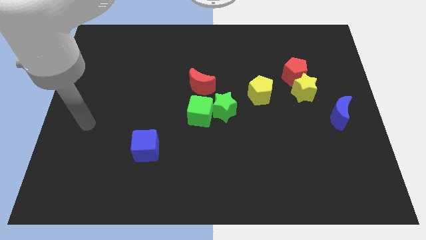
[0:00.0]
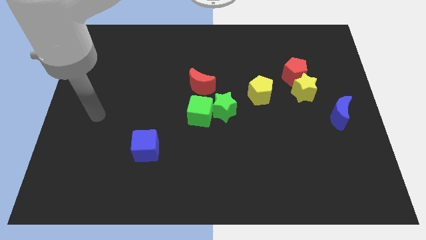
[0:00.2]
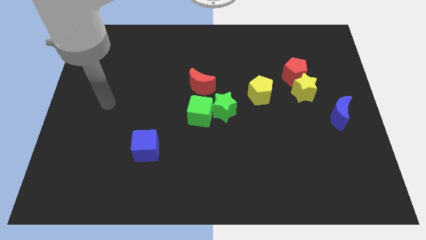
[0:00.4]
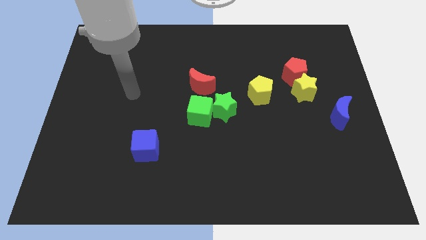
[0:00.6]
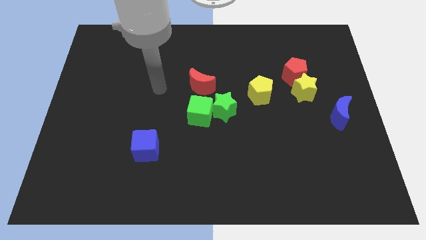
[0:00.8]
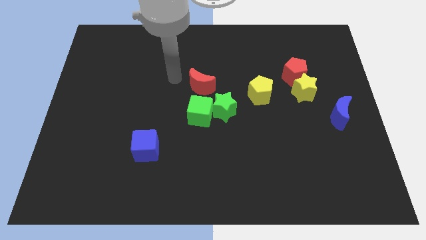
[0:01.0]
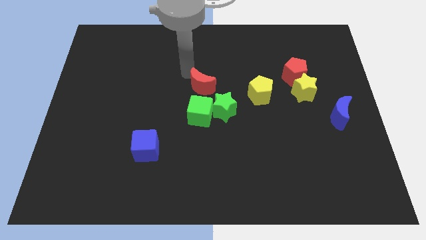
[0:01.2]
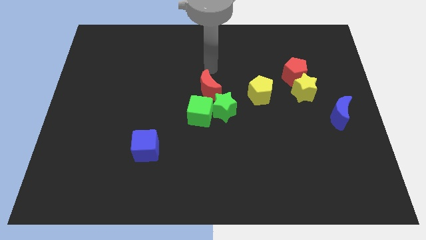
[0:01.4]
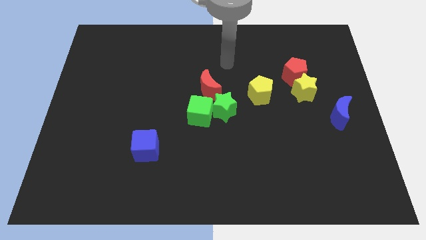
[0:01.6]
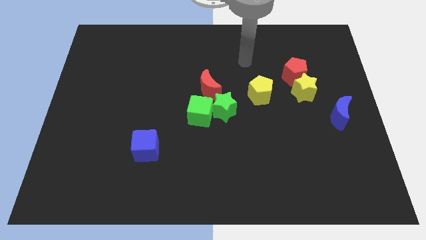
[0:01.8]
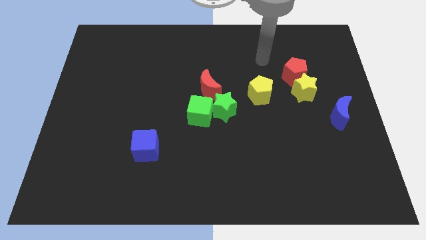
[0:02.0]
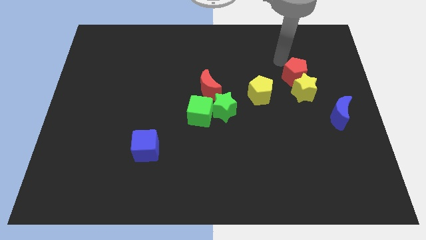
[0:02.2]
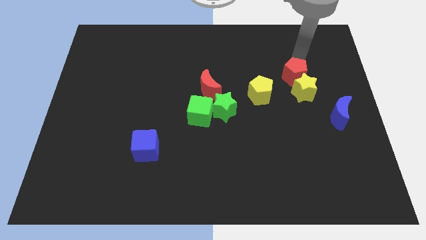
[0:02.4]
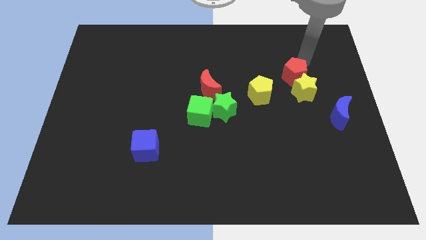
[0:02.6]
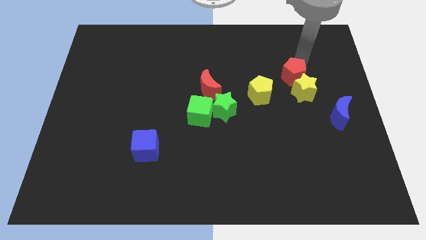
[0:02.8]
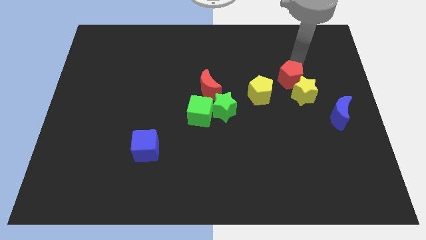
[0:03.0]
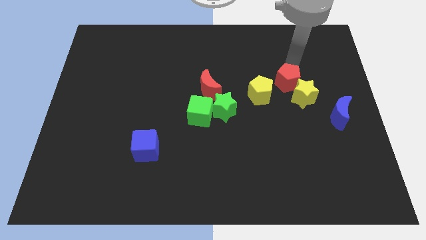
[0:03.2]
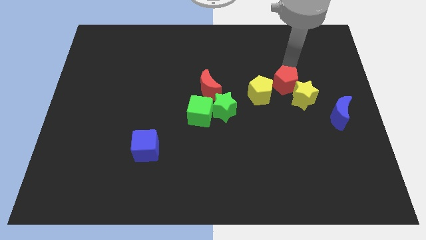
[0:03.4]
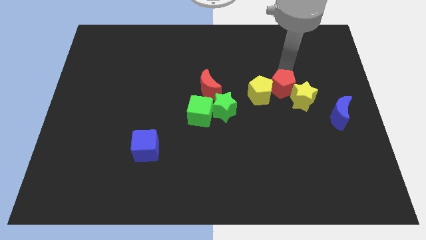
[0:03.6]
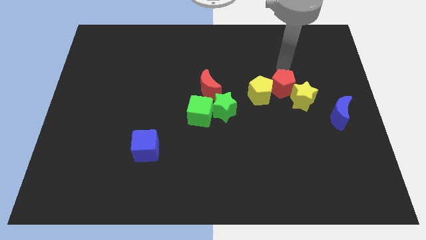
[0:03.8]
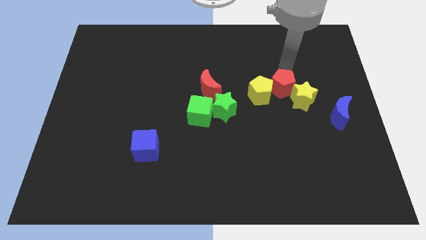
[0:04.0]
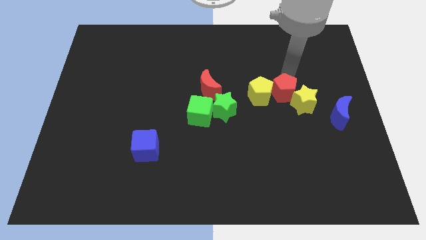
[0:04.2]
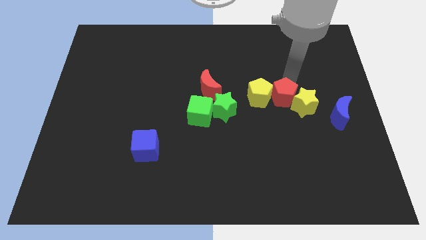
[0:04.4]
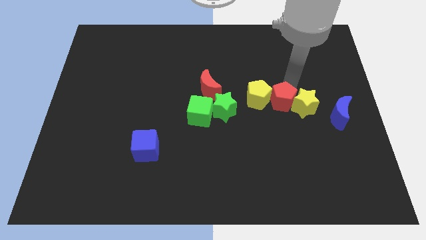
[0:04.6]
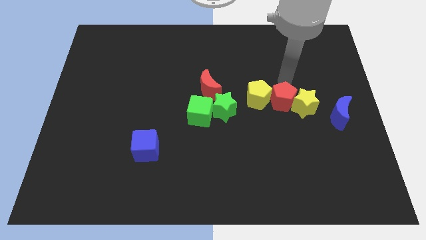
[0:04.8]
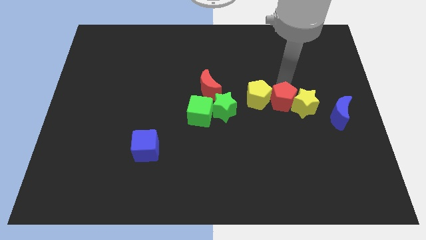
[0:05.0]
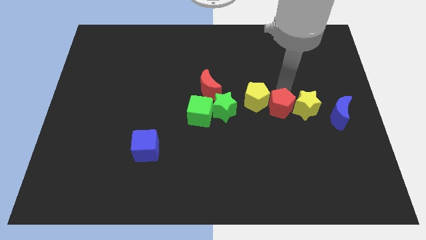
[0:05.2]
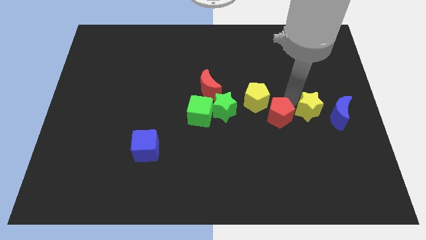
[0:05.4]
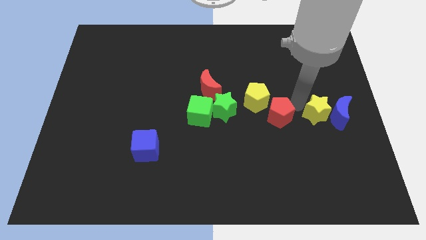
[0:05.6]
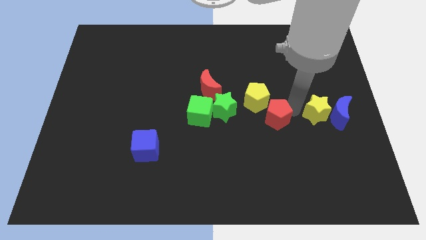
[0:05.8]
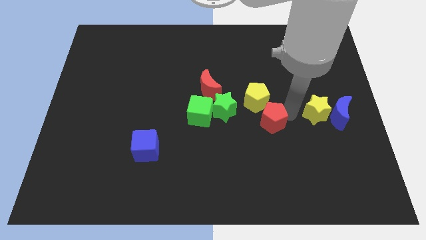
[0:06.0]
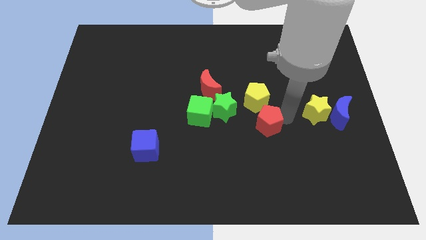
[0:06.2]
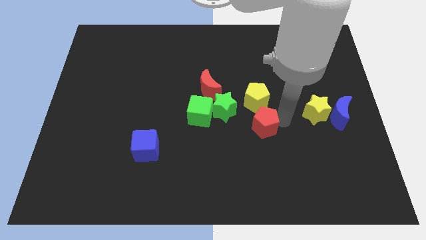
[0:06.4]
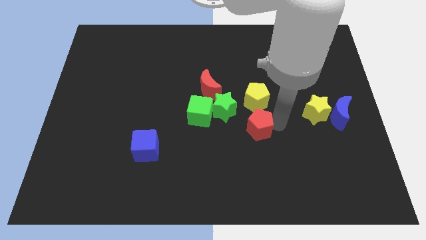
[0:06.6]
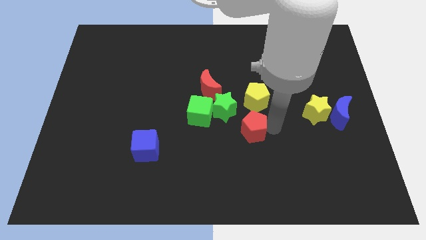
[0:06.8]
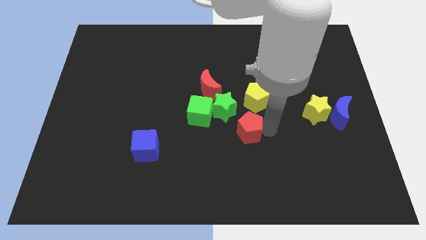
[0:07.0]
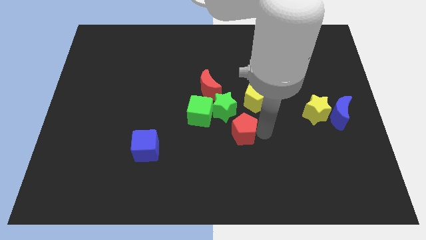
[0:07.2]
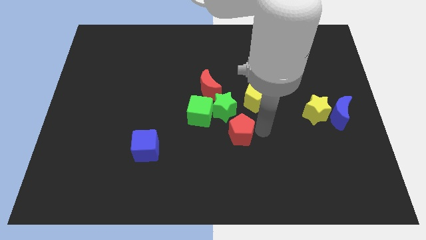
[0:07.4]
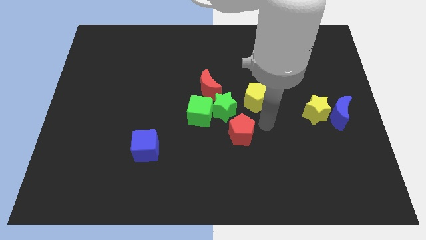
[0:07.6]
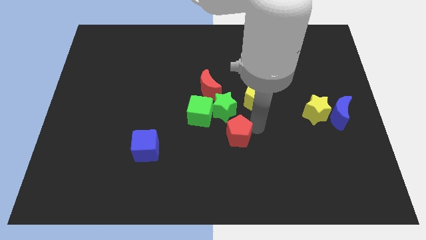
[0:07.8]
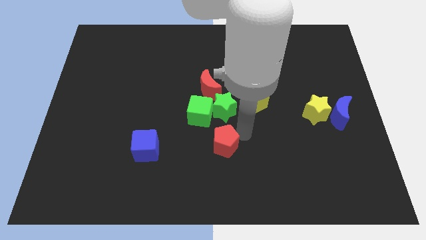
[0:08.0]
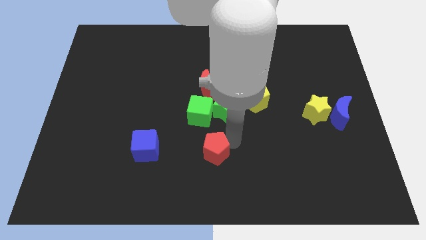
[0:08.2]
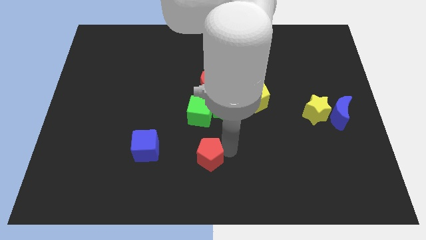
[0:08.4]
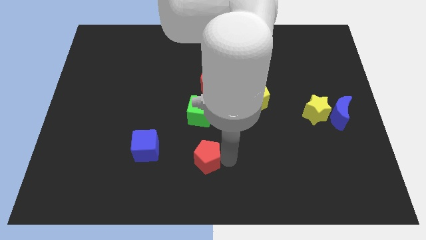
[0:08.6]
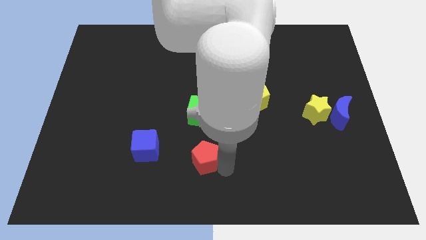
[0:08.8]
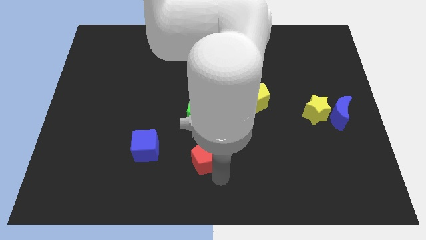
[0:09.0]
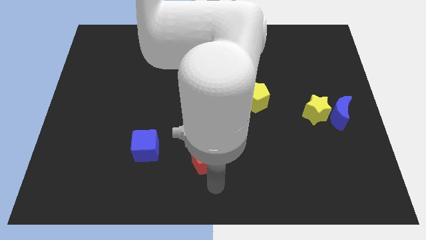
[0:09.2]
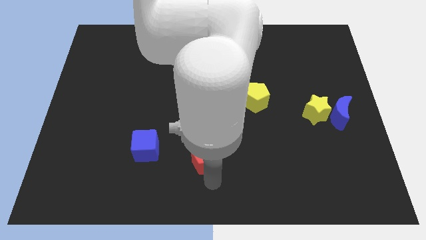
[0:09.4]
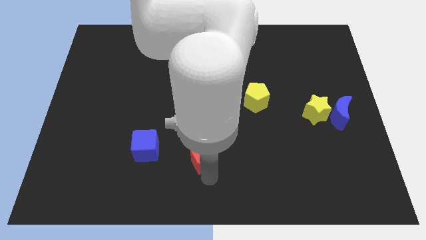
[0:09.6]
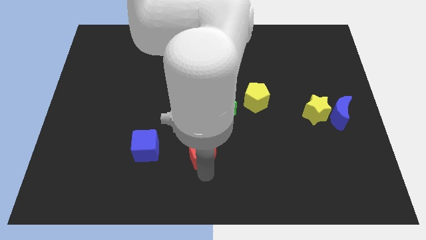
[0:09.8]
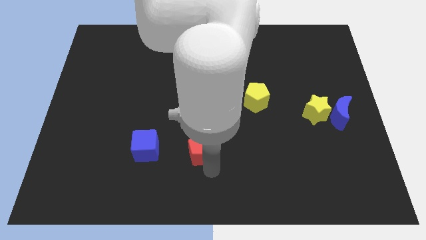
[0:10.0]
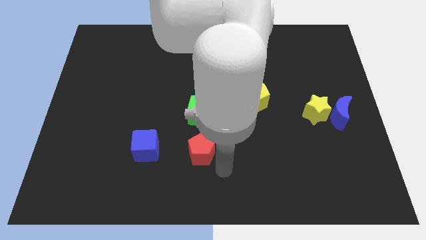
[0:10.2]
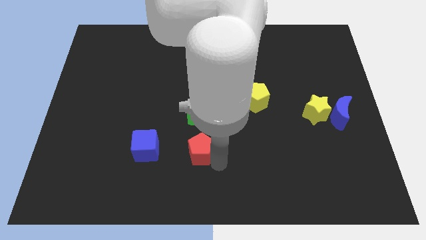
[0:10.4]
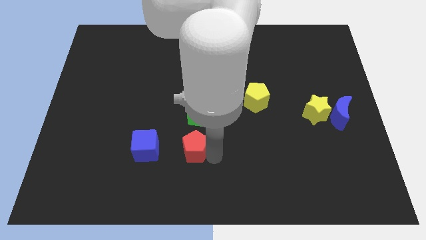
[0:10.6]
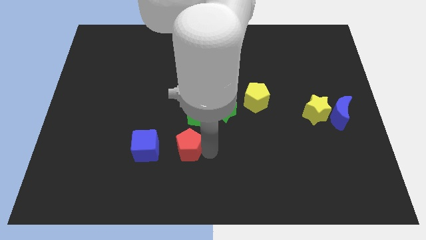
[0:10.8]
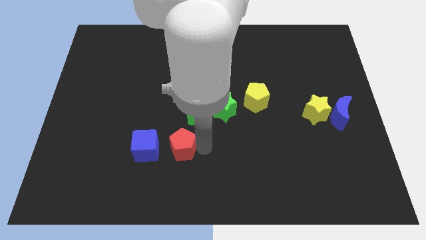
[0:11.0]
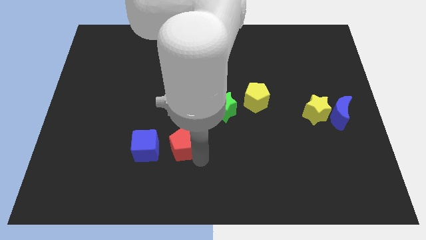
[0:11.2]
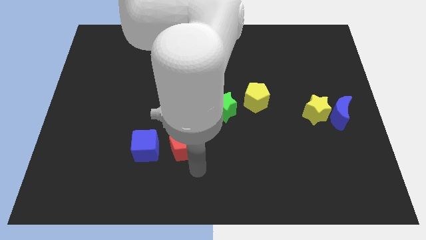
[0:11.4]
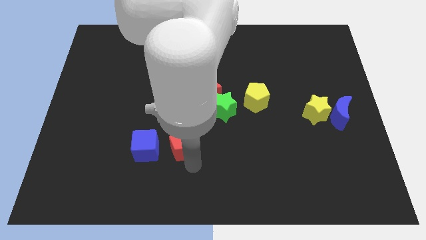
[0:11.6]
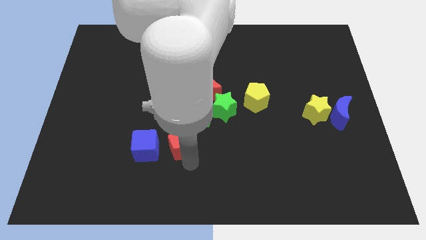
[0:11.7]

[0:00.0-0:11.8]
put the red pentagon diagonally up and to the right of the blue cube

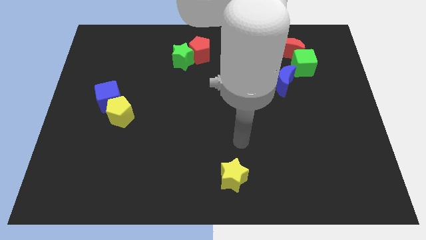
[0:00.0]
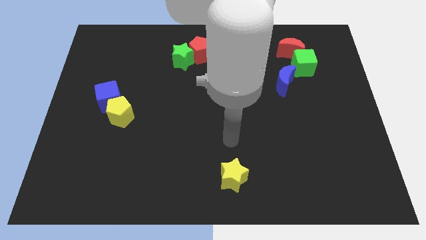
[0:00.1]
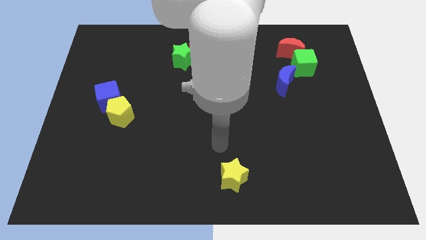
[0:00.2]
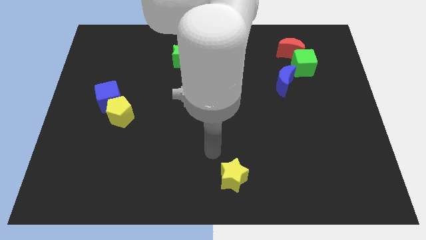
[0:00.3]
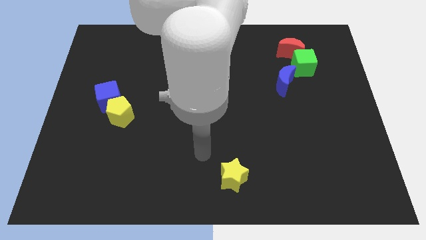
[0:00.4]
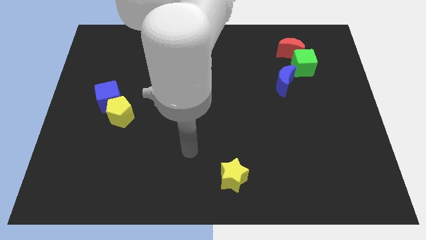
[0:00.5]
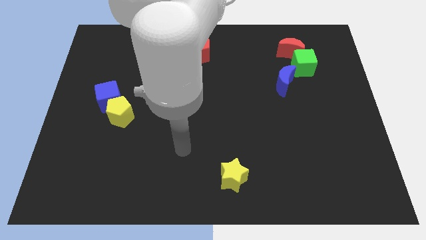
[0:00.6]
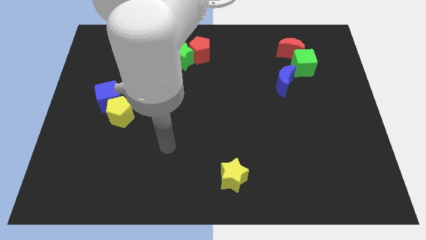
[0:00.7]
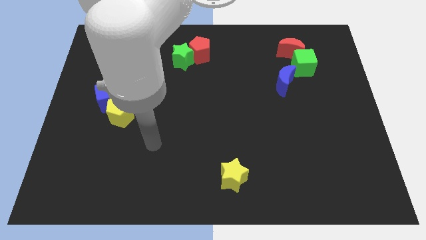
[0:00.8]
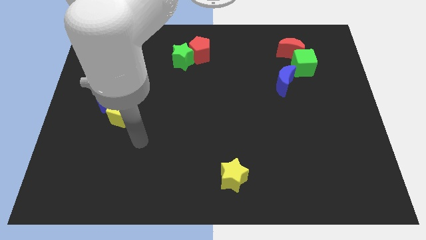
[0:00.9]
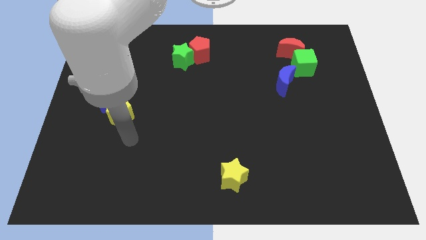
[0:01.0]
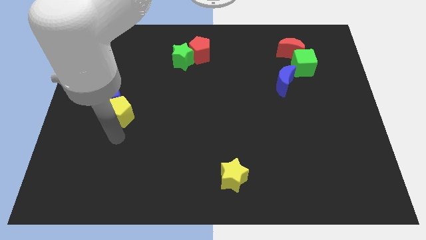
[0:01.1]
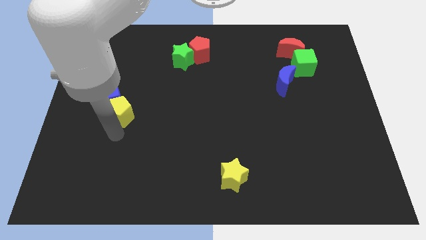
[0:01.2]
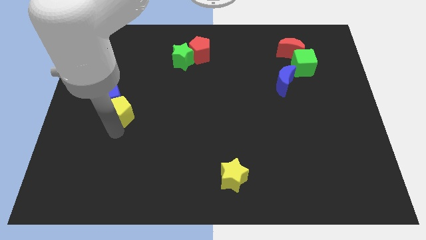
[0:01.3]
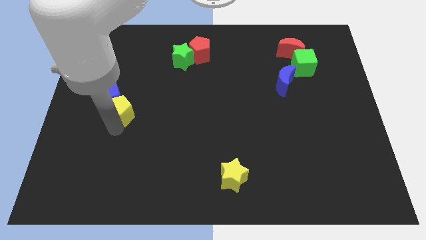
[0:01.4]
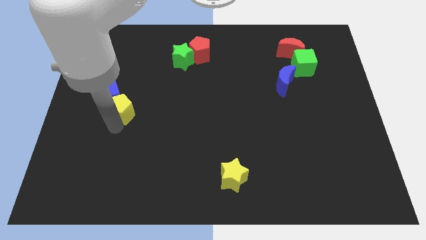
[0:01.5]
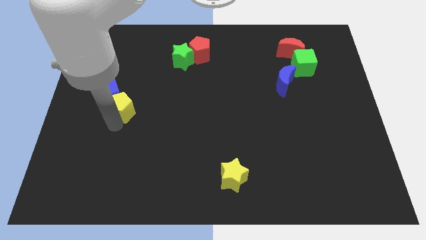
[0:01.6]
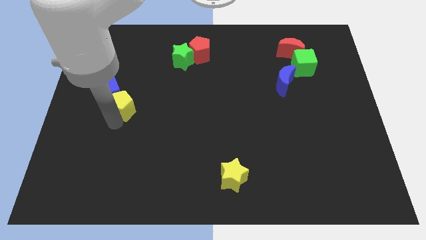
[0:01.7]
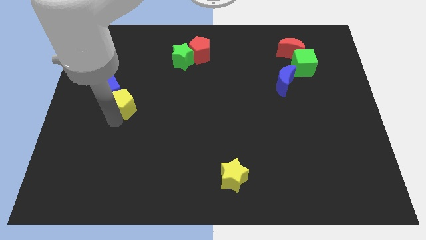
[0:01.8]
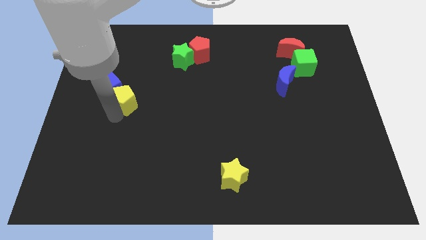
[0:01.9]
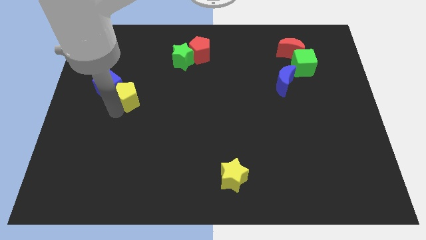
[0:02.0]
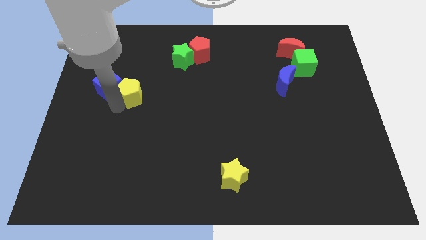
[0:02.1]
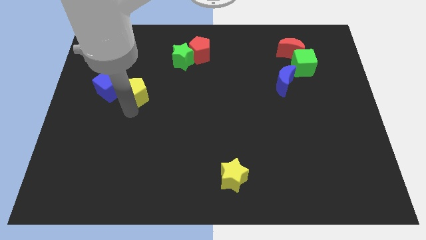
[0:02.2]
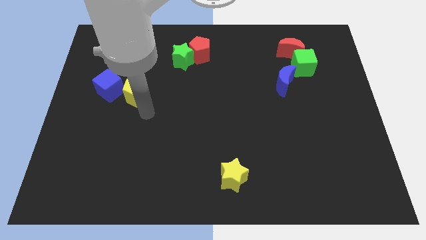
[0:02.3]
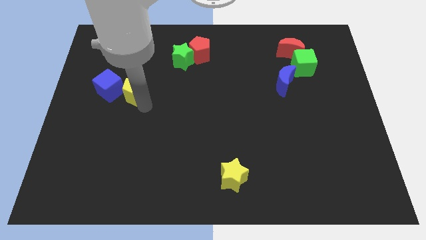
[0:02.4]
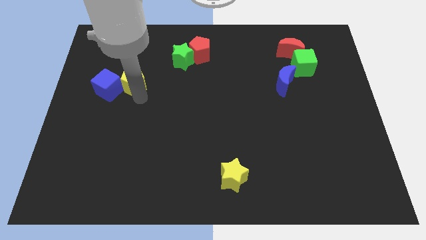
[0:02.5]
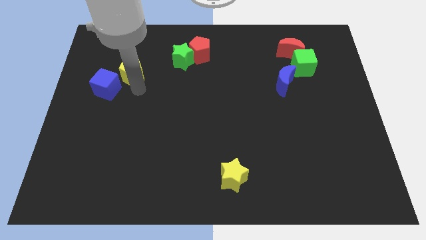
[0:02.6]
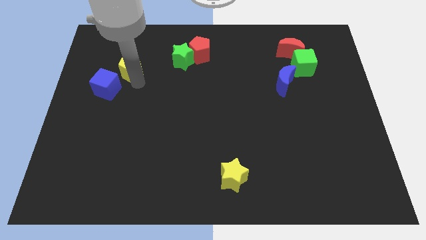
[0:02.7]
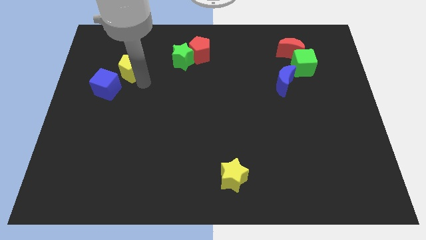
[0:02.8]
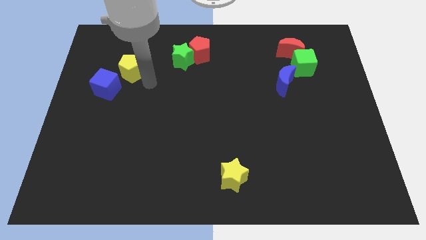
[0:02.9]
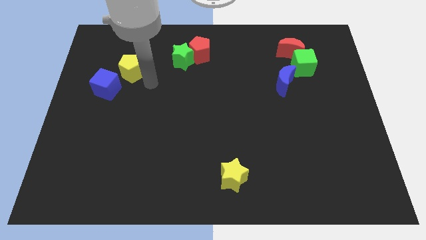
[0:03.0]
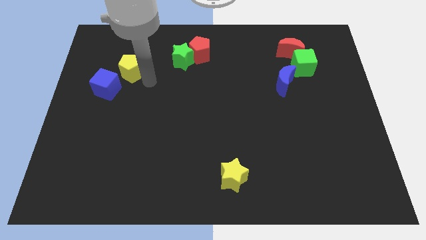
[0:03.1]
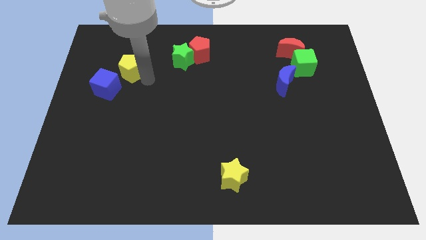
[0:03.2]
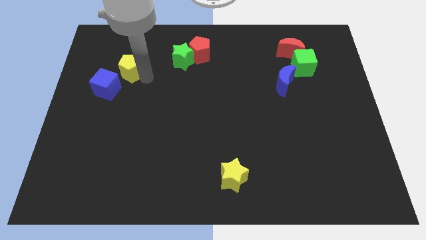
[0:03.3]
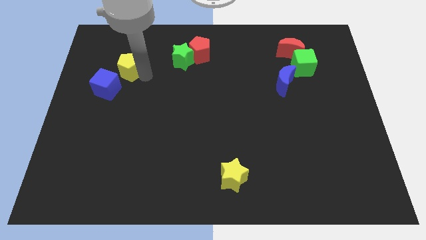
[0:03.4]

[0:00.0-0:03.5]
slide the yellow pentagon to the top of the blue cube
